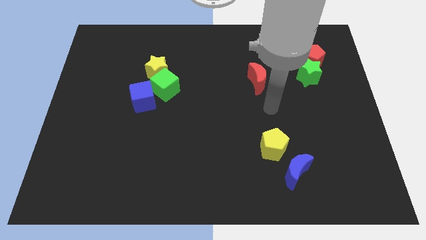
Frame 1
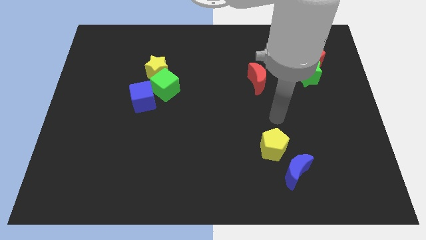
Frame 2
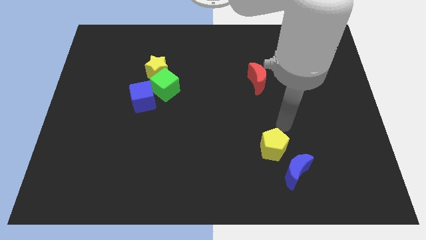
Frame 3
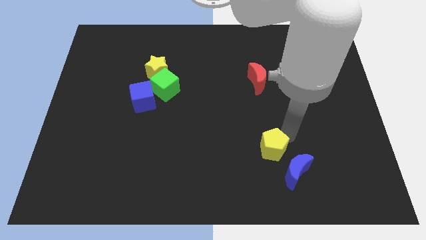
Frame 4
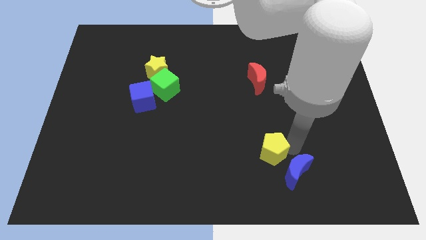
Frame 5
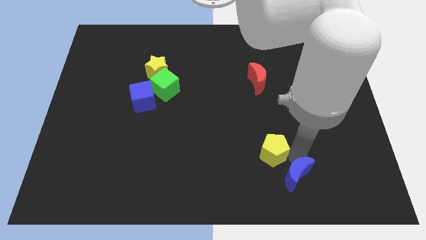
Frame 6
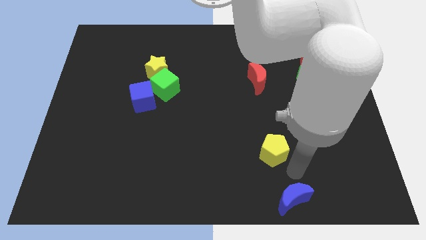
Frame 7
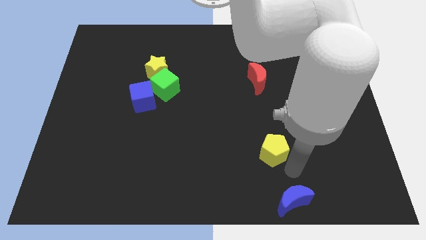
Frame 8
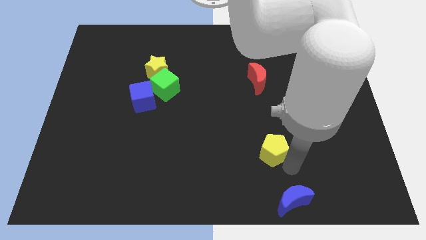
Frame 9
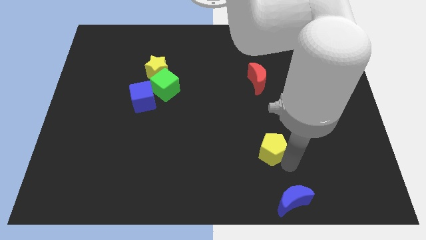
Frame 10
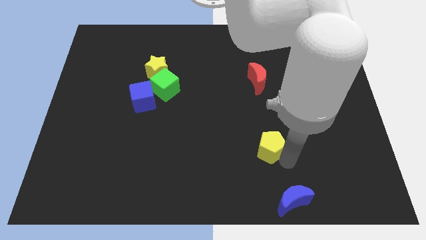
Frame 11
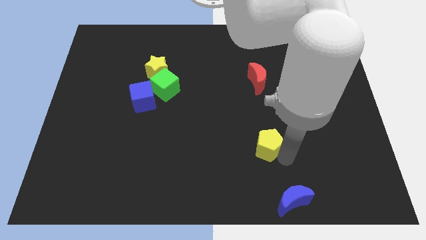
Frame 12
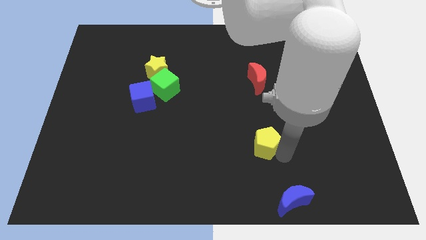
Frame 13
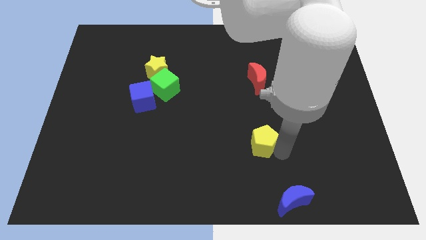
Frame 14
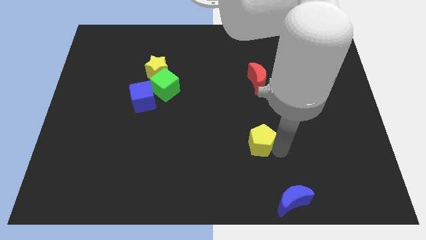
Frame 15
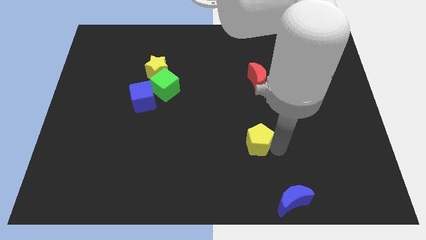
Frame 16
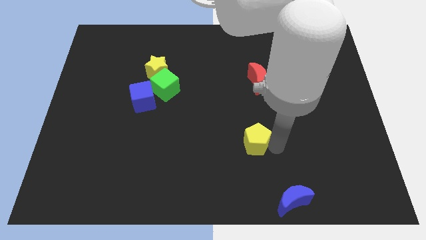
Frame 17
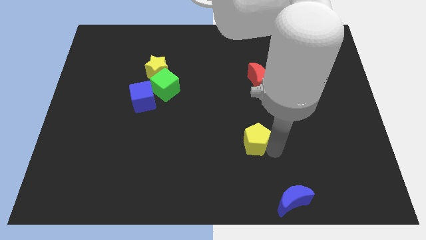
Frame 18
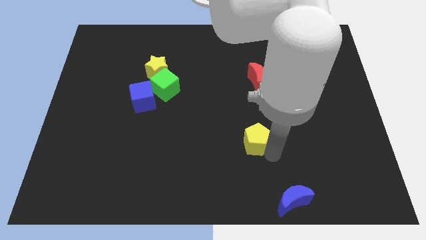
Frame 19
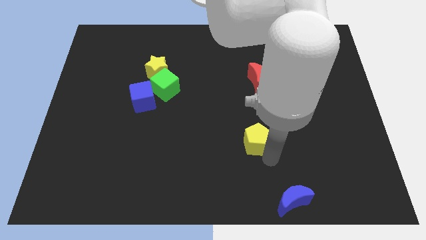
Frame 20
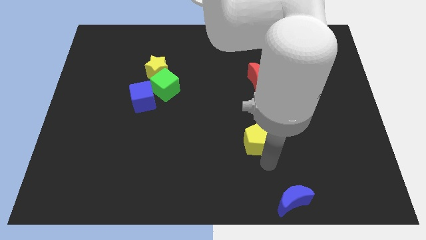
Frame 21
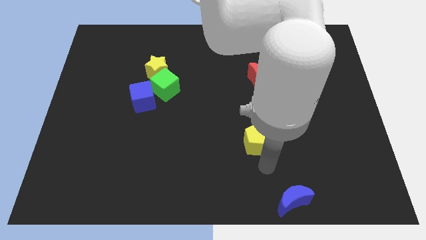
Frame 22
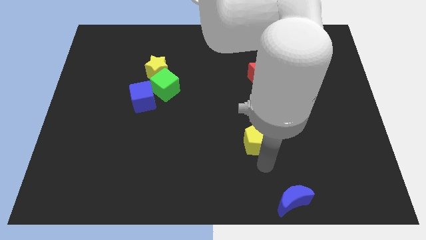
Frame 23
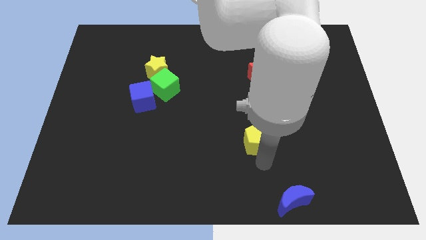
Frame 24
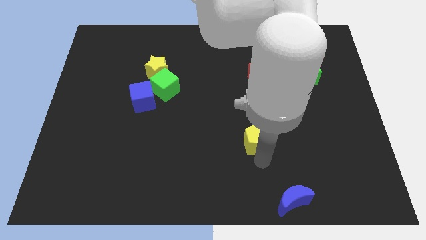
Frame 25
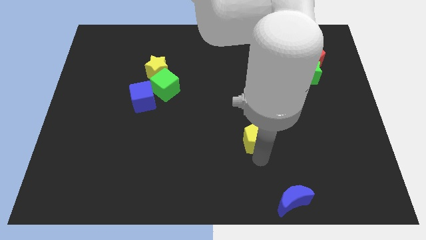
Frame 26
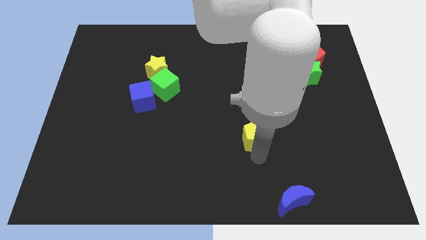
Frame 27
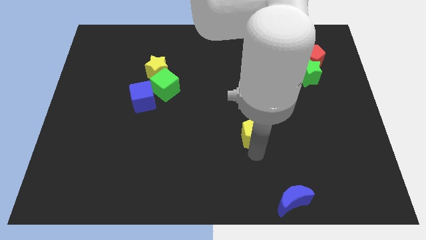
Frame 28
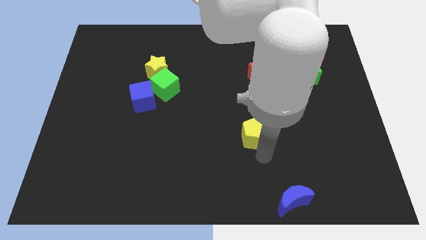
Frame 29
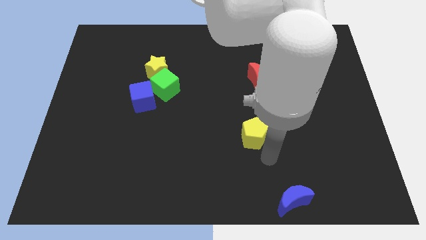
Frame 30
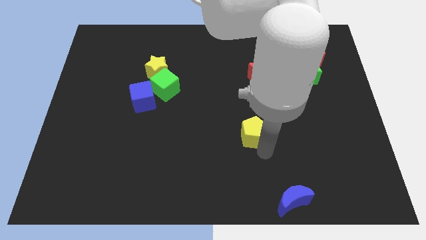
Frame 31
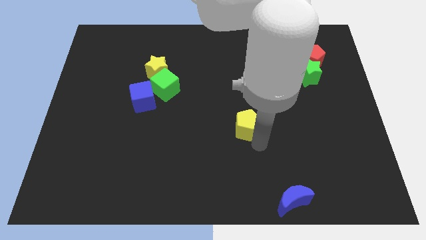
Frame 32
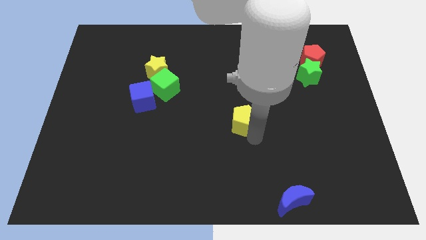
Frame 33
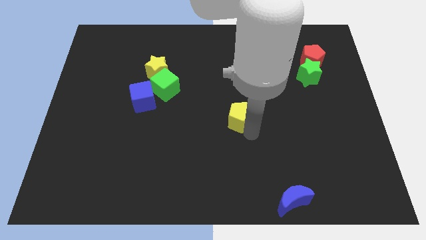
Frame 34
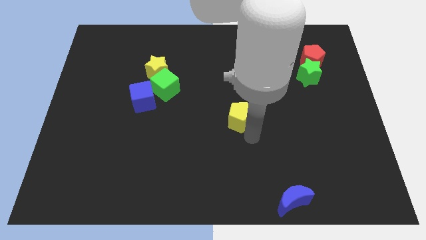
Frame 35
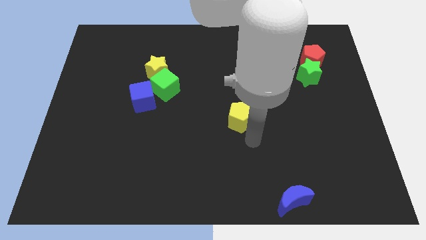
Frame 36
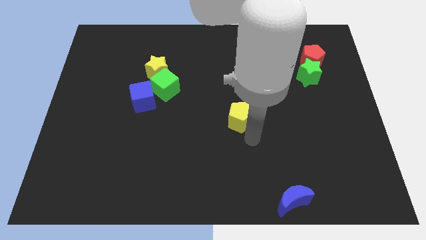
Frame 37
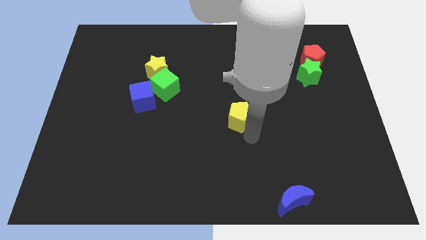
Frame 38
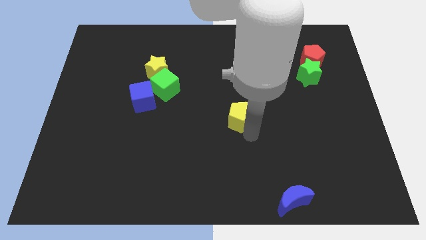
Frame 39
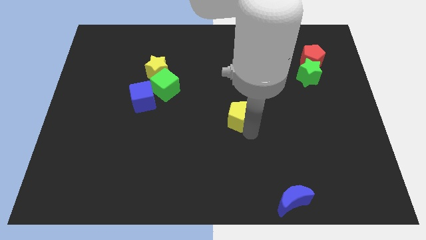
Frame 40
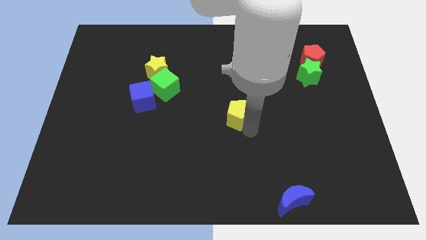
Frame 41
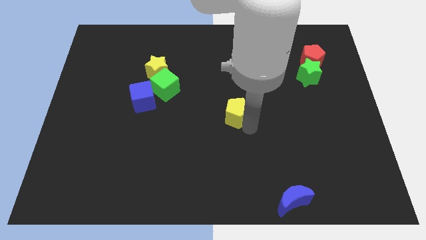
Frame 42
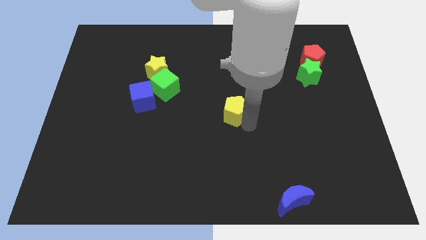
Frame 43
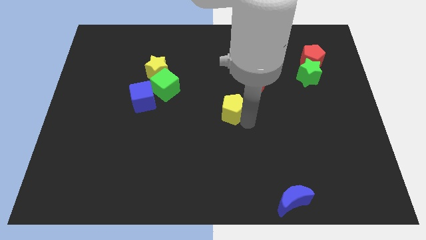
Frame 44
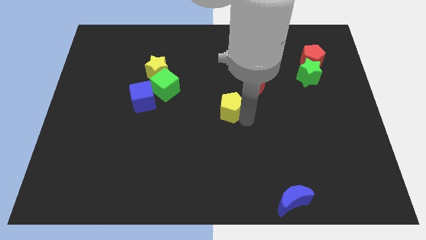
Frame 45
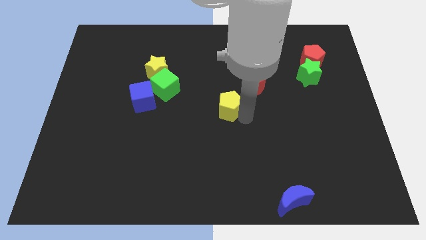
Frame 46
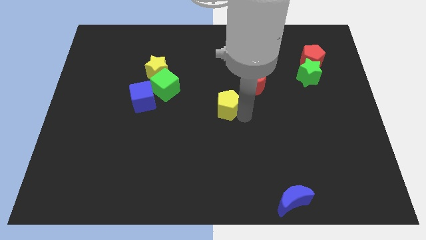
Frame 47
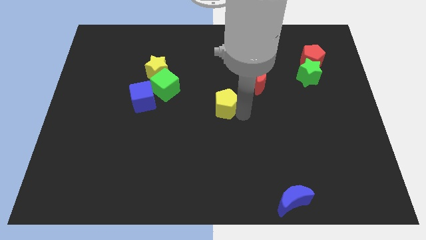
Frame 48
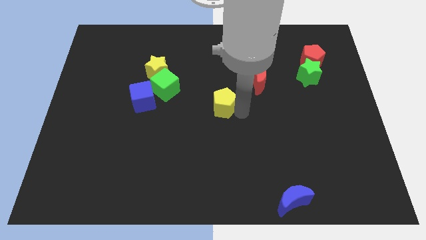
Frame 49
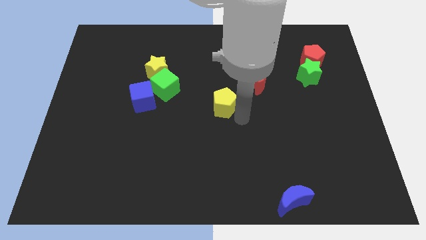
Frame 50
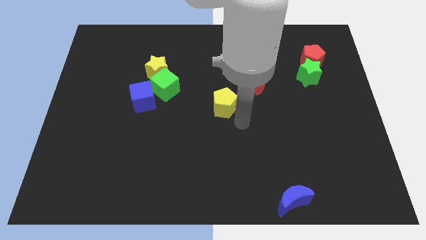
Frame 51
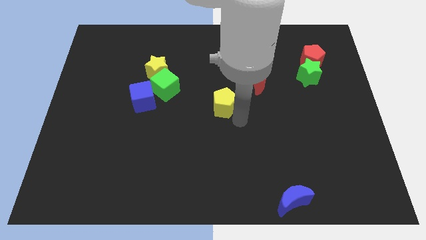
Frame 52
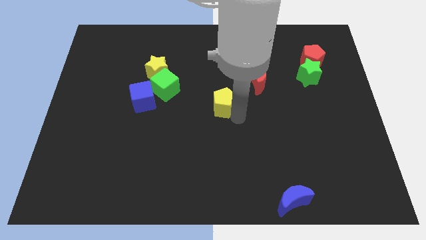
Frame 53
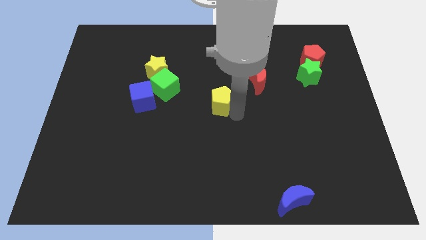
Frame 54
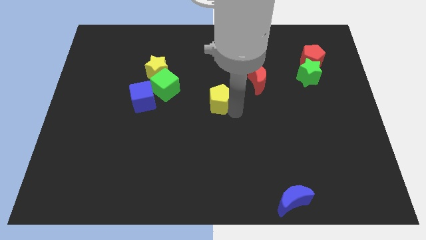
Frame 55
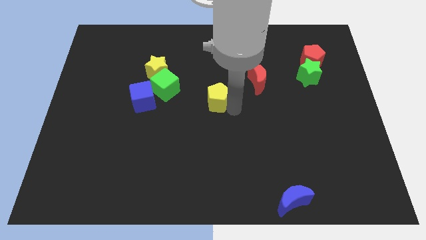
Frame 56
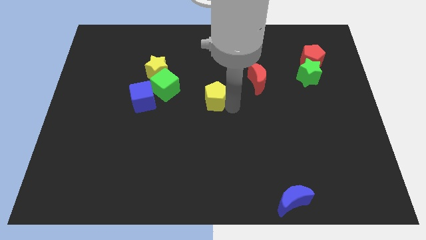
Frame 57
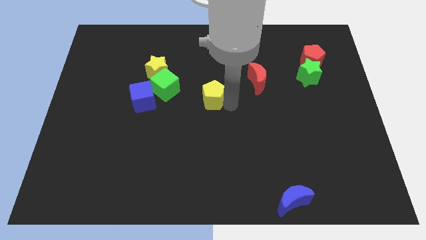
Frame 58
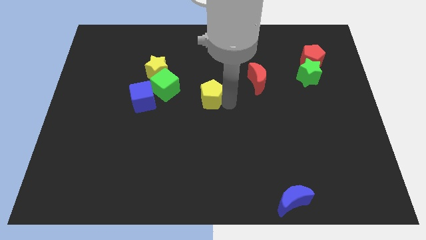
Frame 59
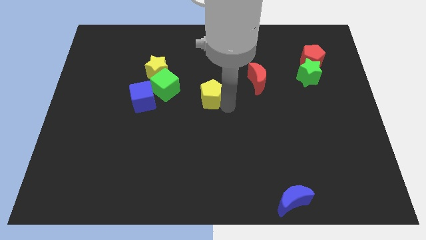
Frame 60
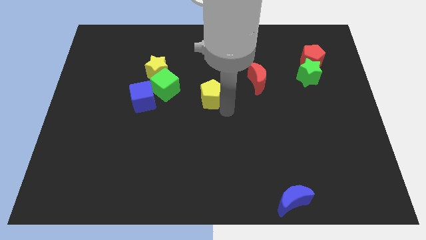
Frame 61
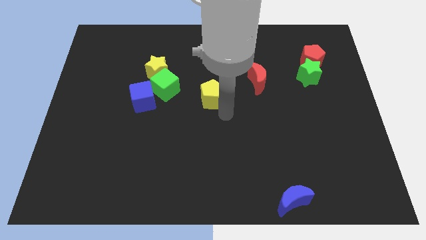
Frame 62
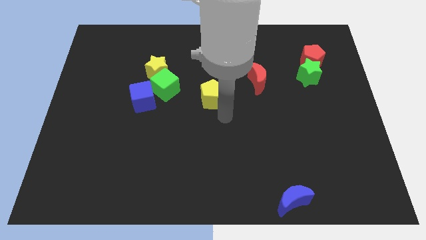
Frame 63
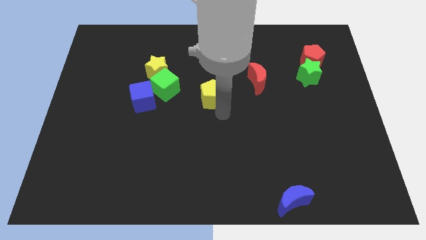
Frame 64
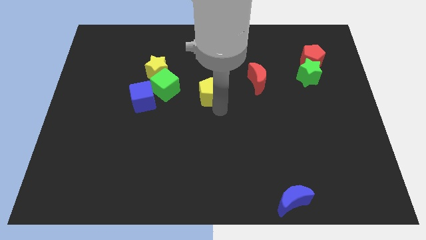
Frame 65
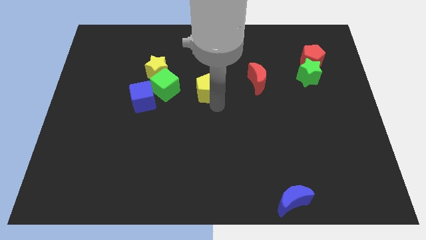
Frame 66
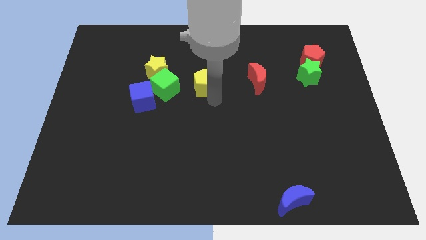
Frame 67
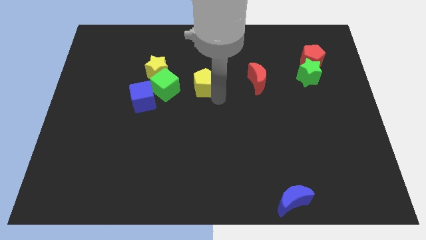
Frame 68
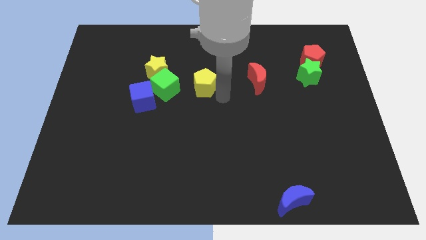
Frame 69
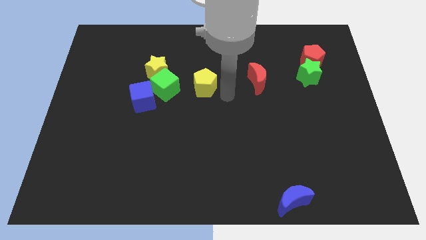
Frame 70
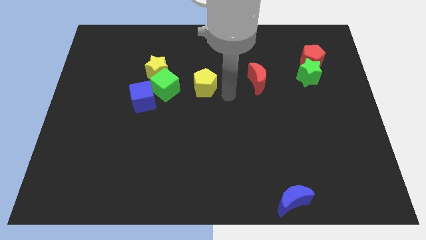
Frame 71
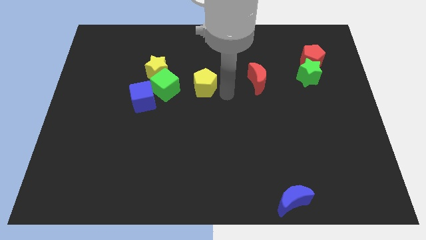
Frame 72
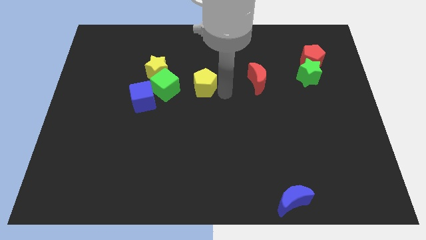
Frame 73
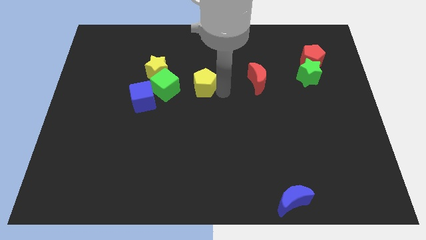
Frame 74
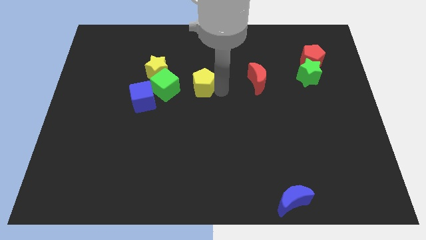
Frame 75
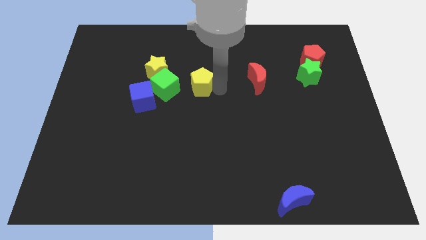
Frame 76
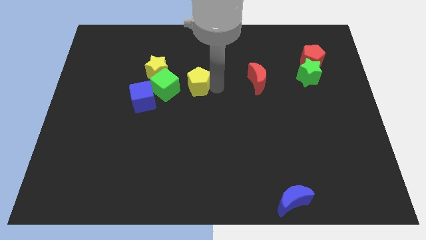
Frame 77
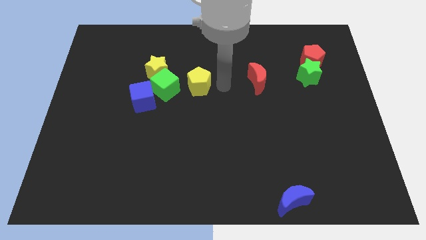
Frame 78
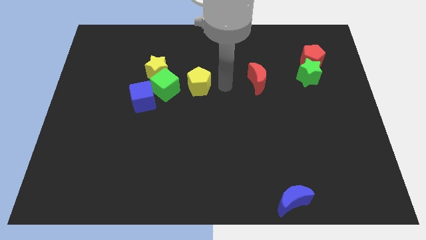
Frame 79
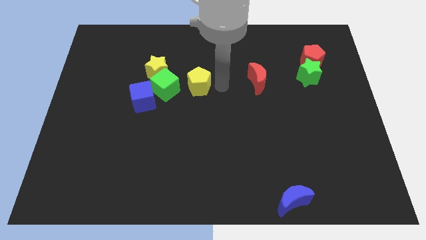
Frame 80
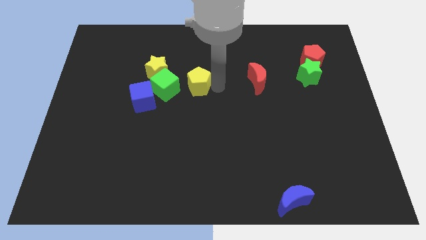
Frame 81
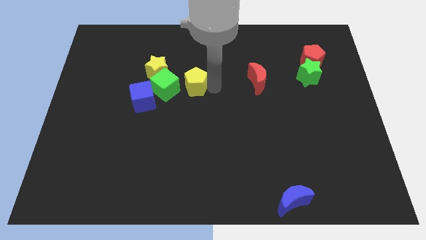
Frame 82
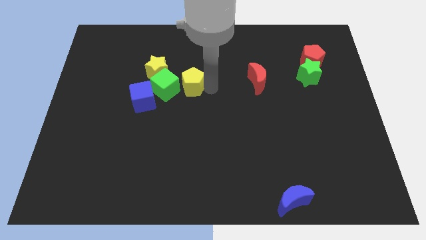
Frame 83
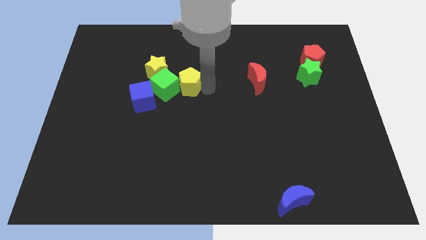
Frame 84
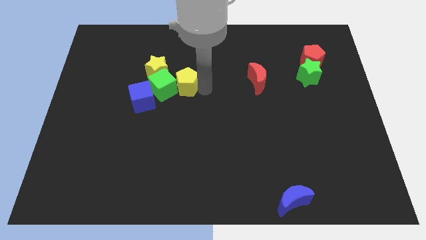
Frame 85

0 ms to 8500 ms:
move the yellow pentagon diagonally up and to the right of the blue cube
